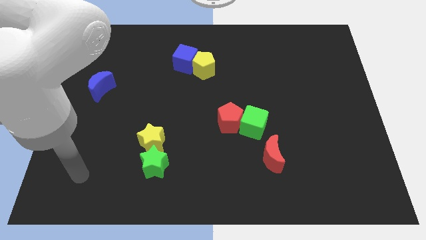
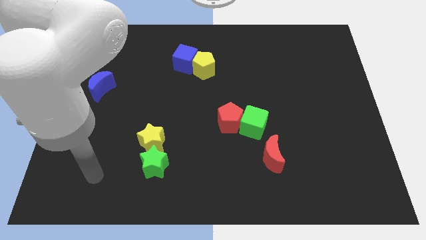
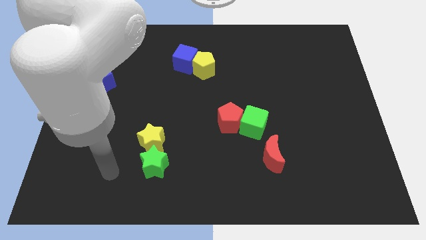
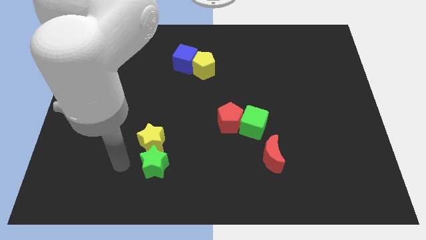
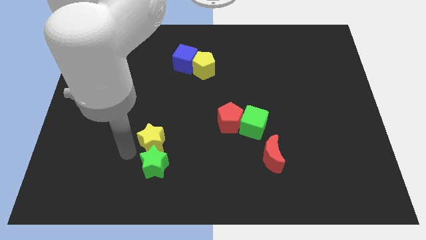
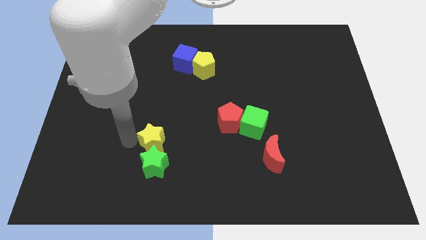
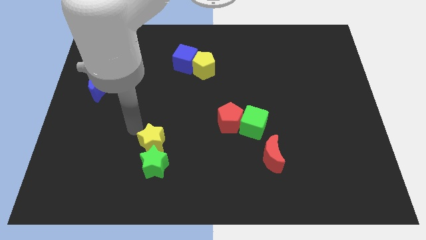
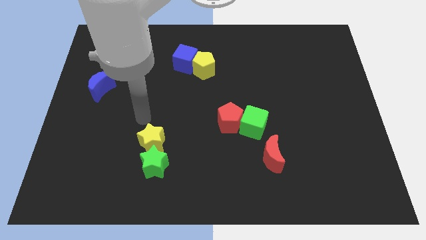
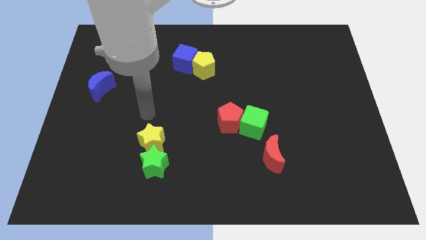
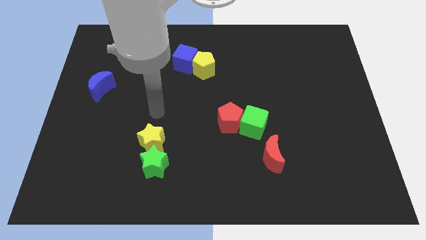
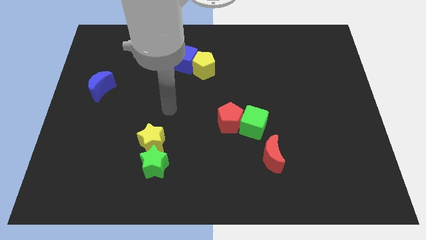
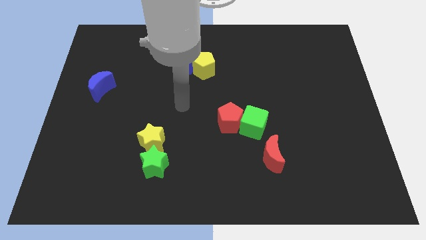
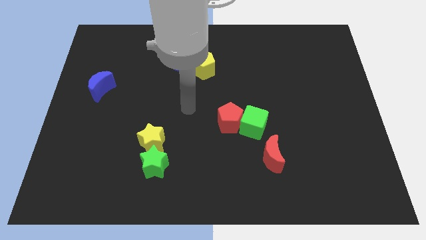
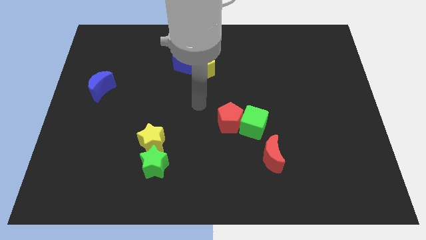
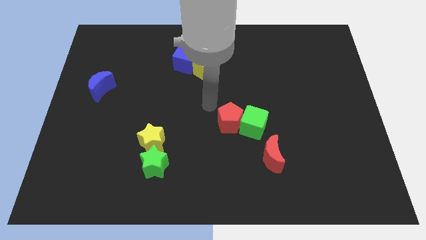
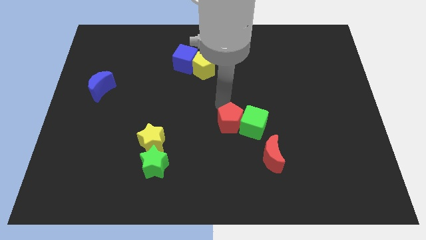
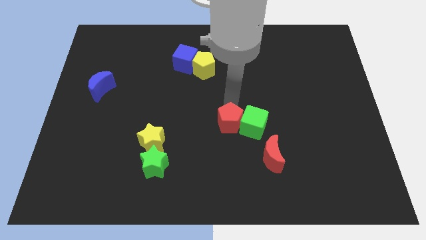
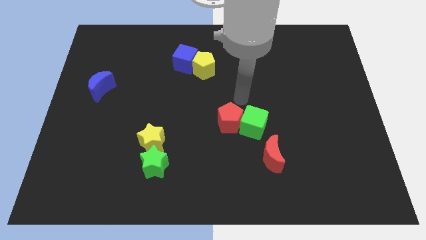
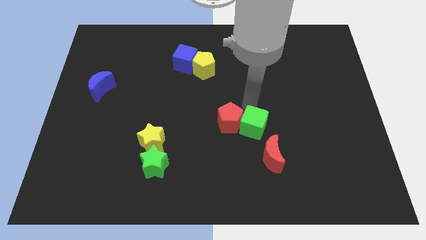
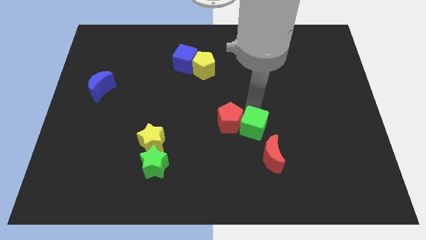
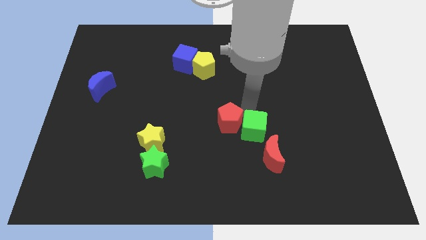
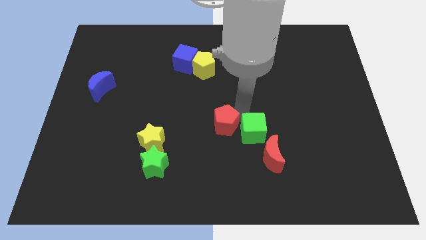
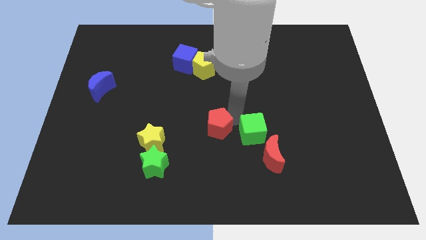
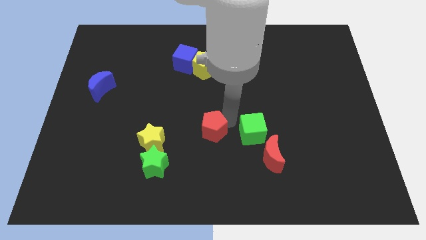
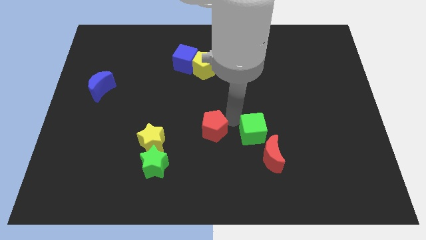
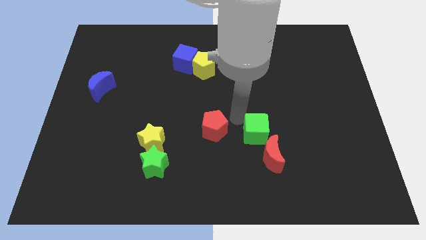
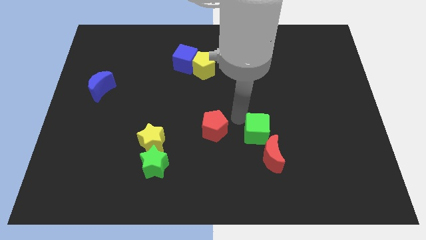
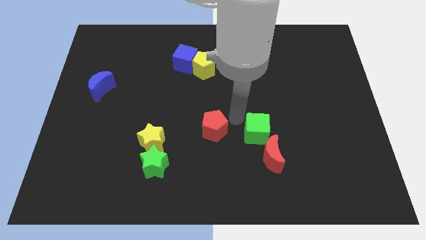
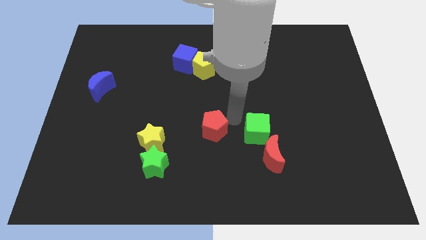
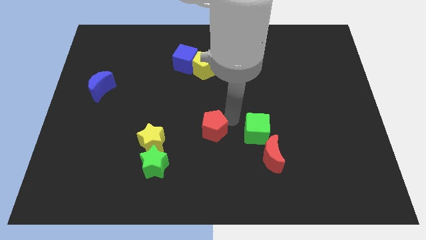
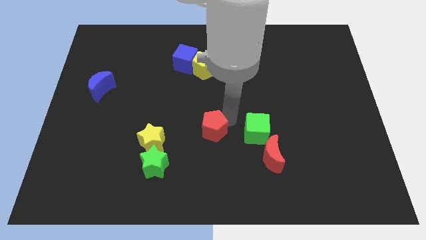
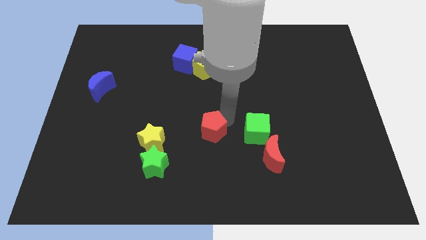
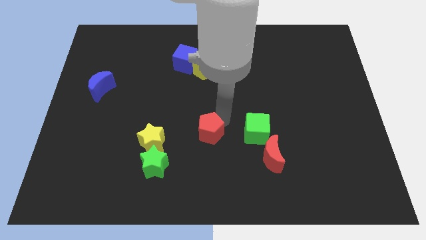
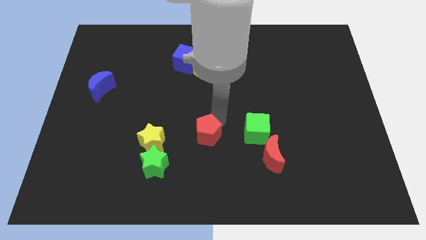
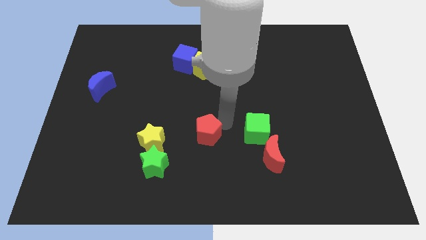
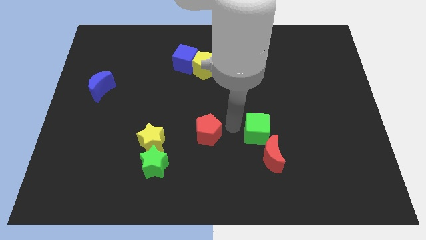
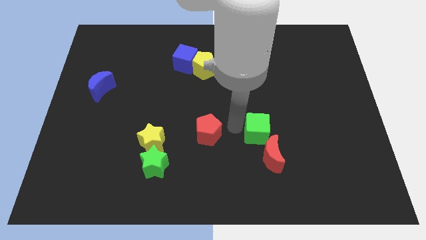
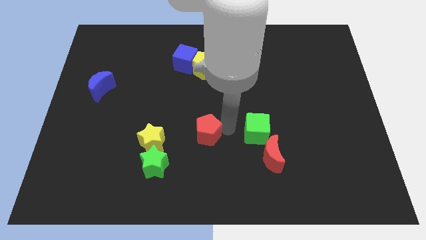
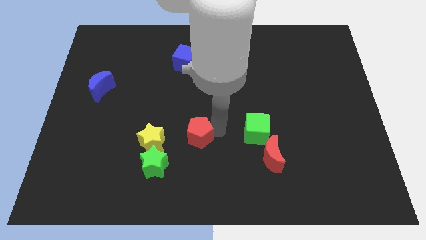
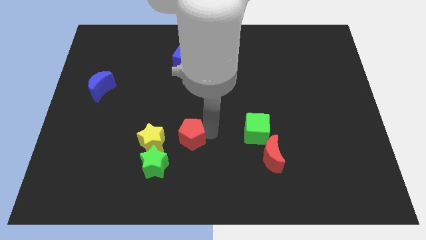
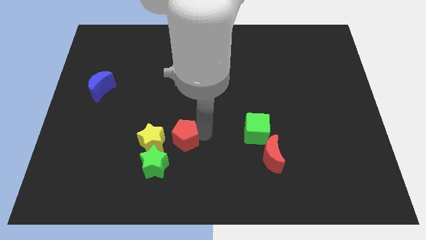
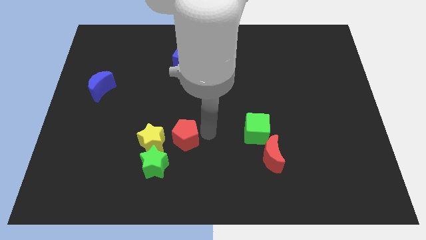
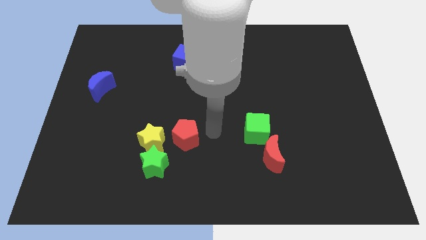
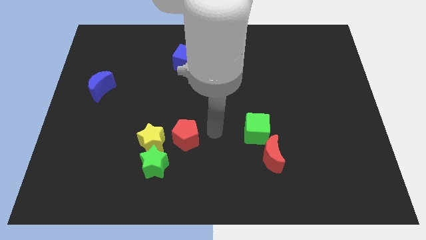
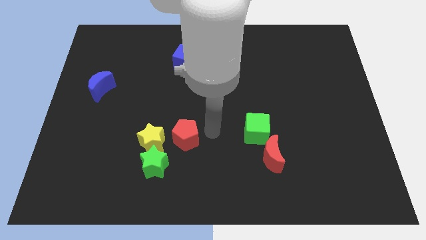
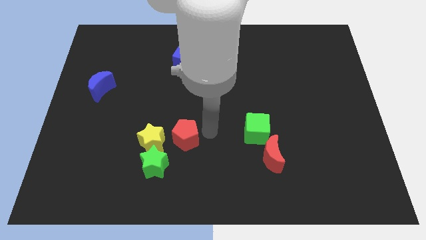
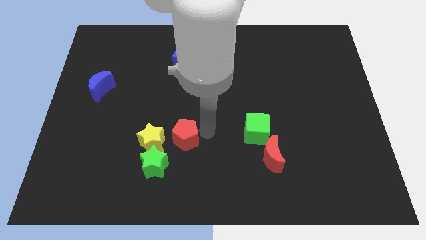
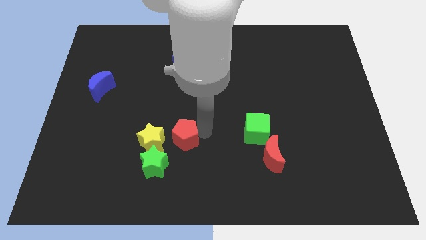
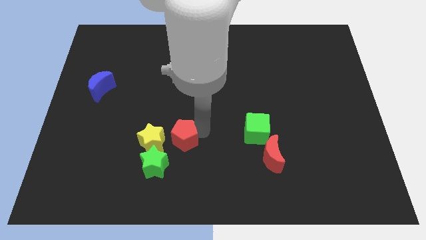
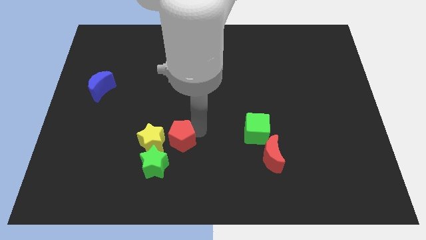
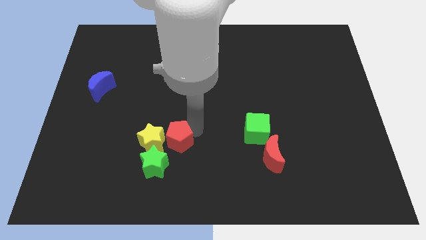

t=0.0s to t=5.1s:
push the red pentagon towards the yellow star

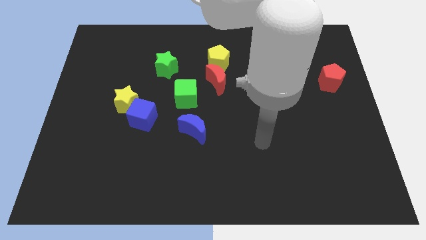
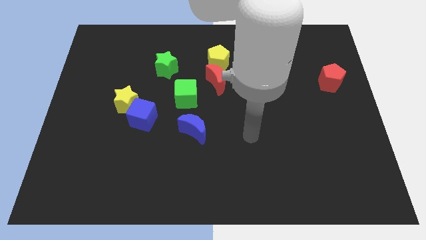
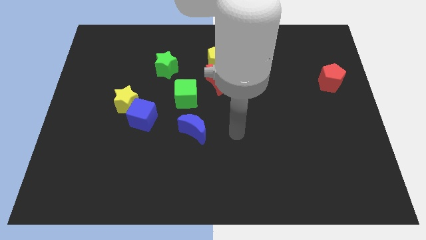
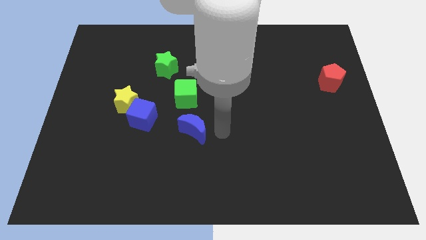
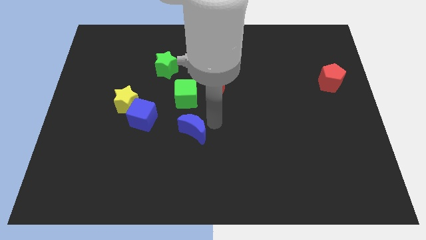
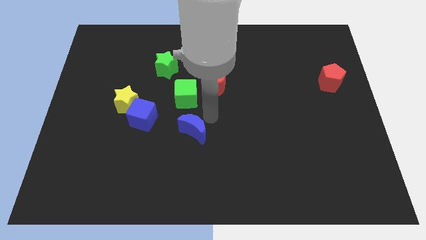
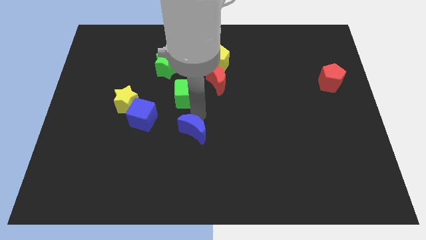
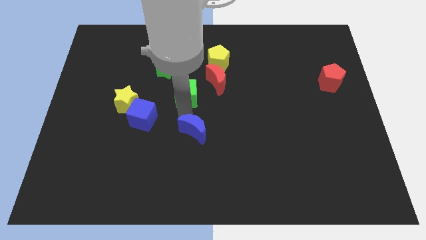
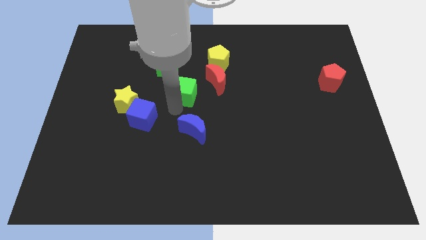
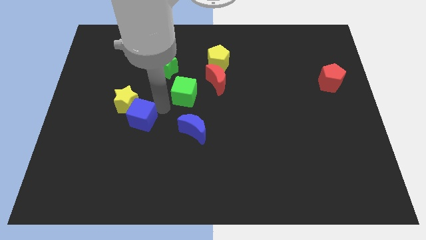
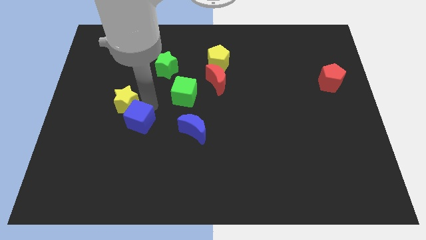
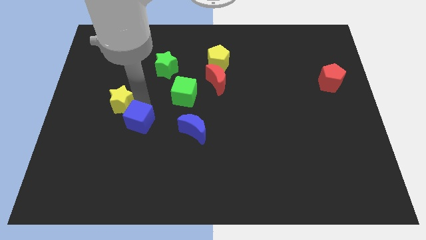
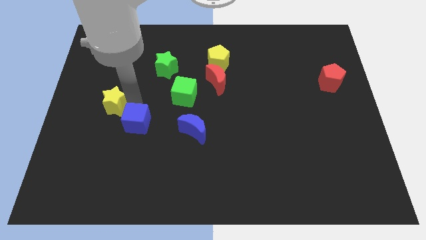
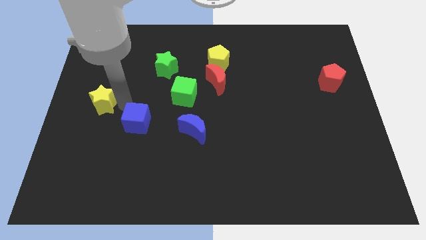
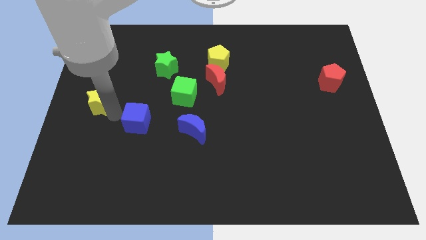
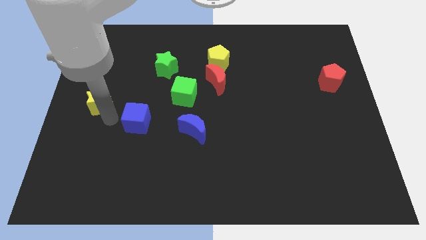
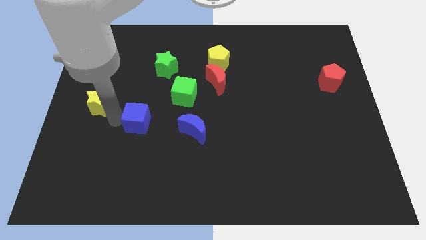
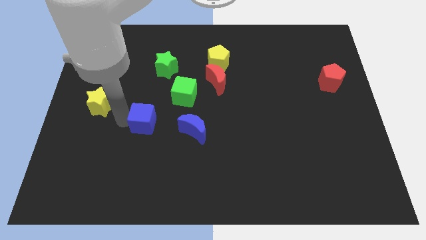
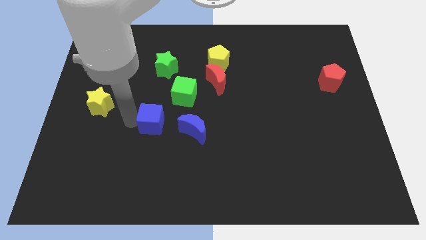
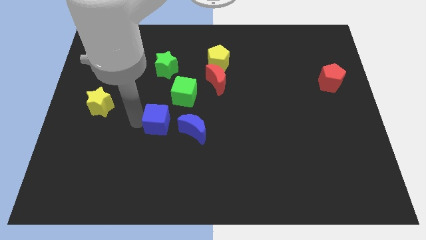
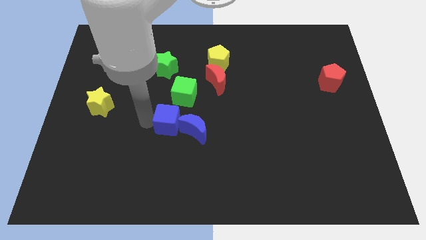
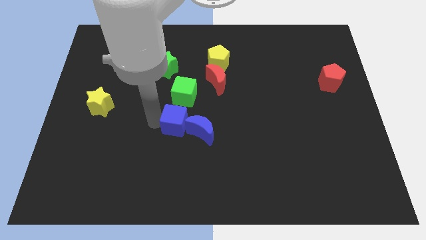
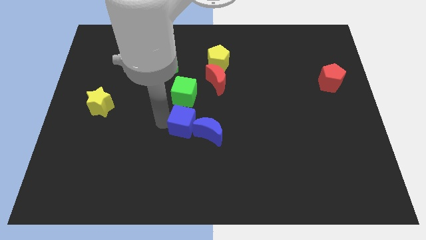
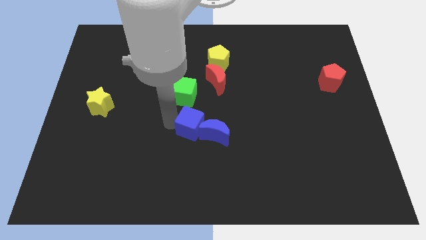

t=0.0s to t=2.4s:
push the blue cube next to the blue moon
